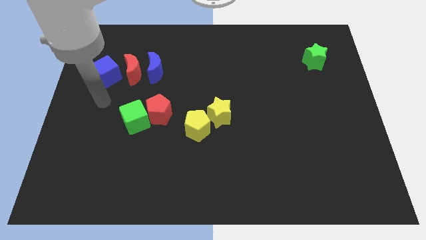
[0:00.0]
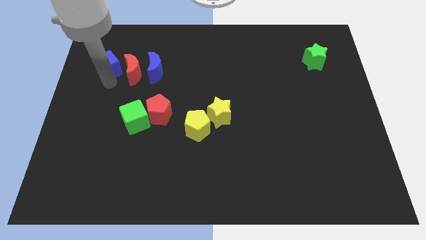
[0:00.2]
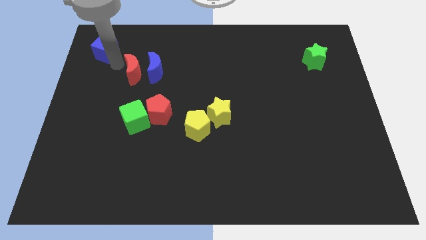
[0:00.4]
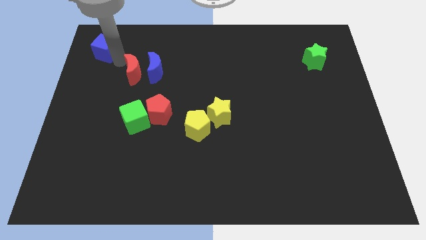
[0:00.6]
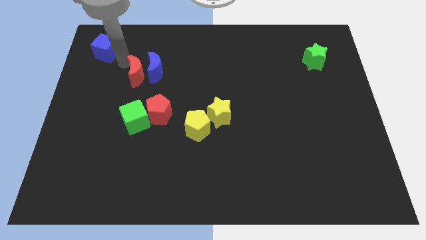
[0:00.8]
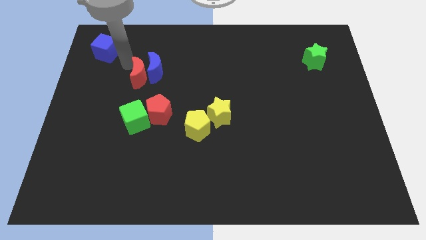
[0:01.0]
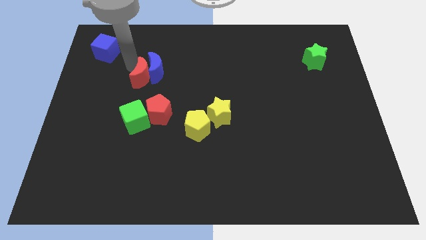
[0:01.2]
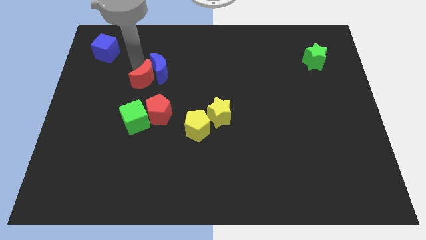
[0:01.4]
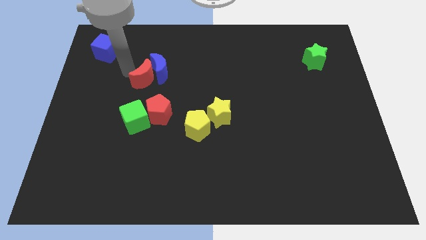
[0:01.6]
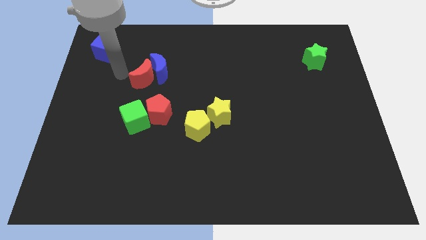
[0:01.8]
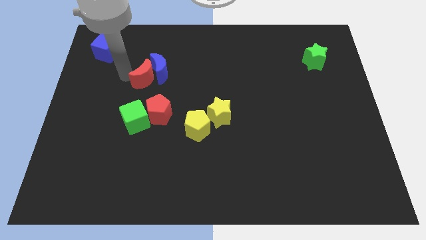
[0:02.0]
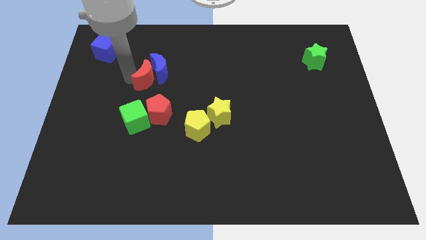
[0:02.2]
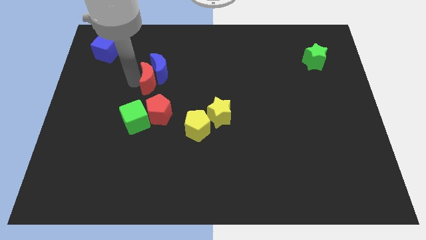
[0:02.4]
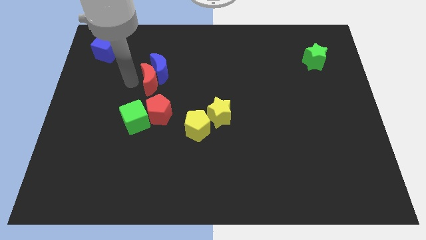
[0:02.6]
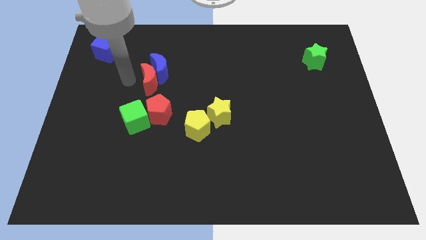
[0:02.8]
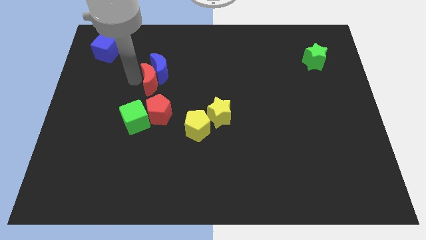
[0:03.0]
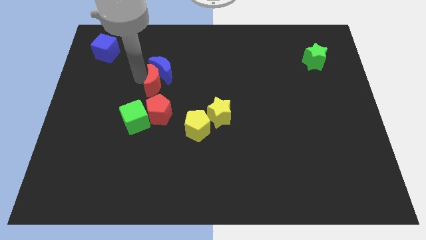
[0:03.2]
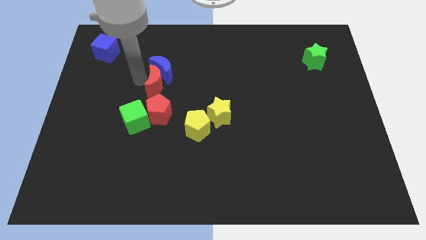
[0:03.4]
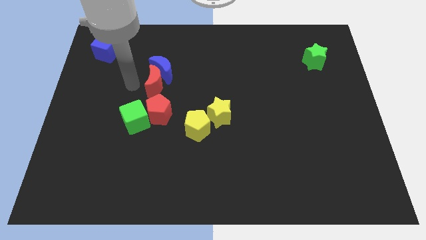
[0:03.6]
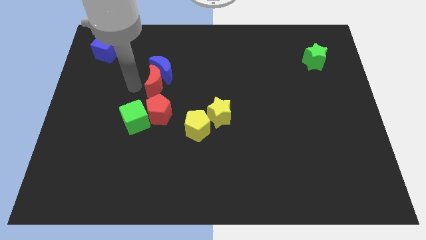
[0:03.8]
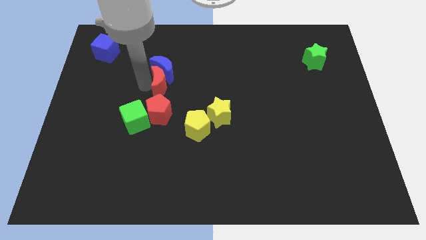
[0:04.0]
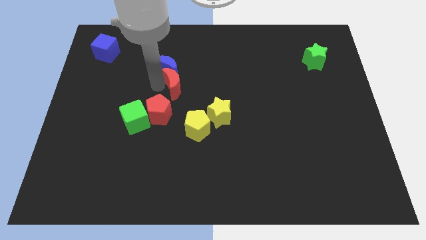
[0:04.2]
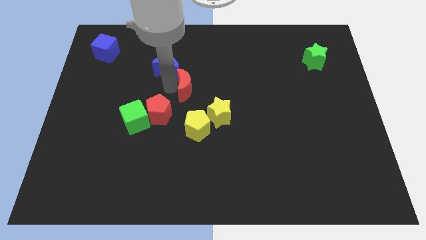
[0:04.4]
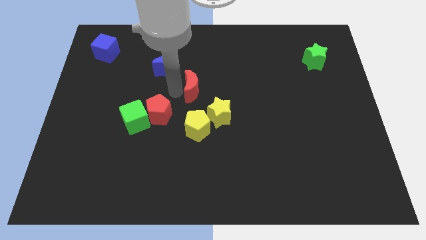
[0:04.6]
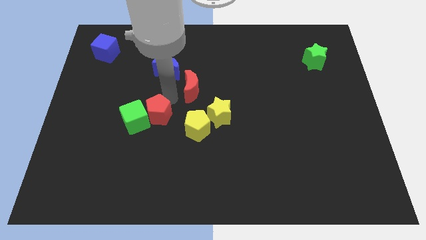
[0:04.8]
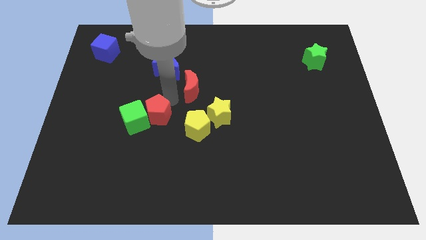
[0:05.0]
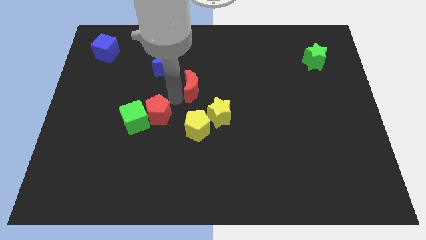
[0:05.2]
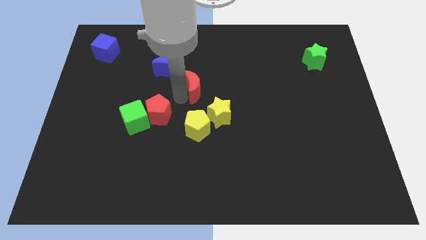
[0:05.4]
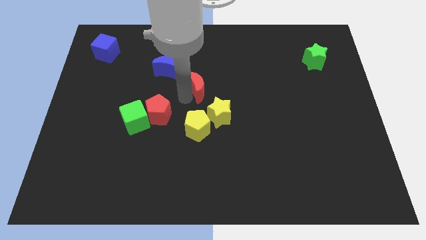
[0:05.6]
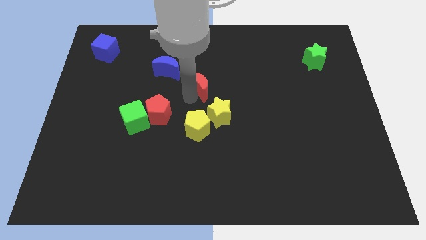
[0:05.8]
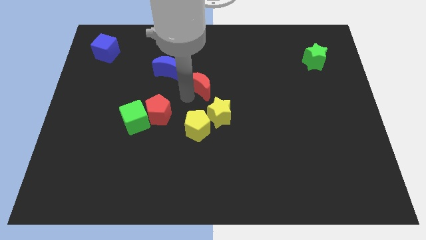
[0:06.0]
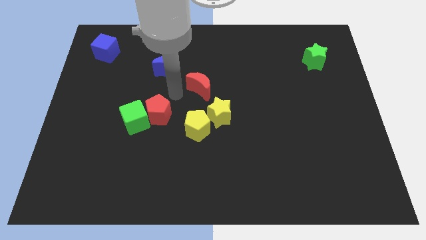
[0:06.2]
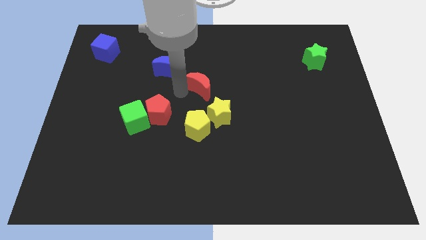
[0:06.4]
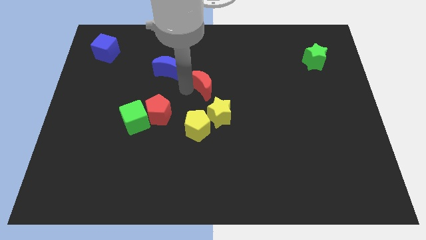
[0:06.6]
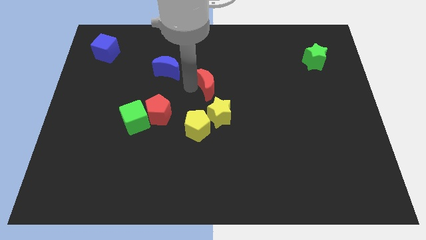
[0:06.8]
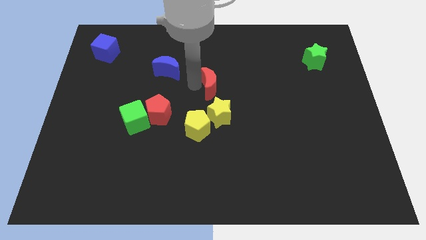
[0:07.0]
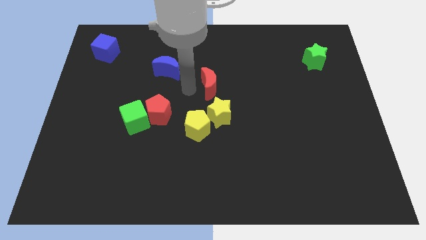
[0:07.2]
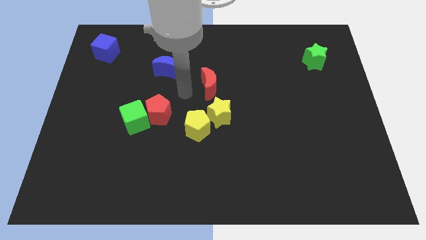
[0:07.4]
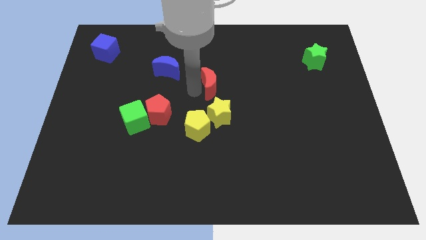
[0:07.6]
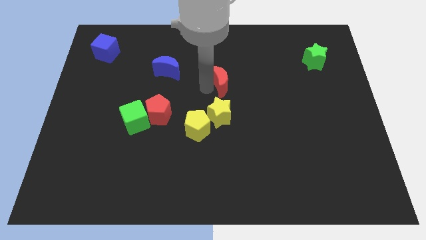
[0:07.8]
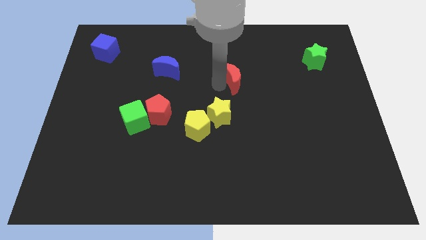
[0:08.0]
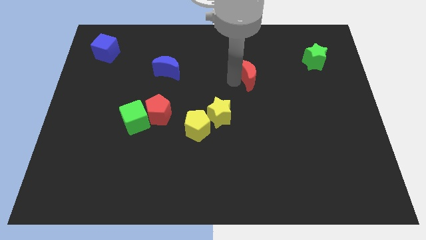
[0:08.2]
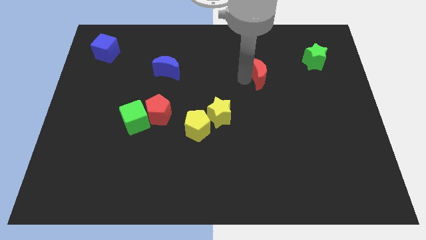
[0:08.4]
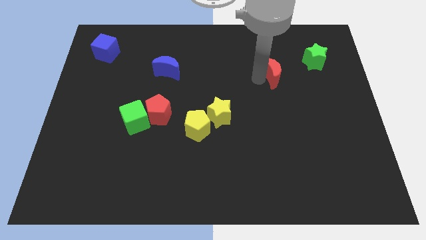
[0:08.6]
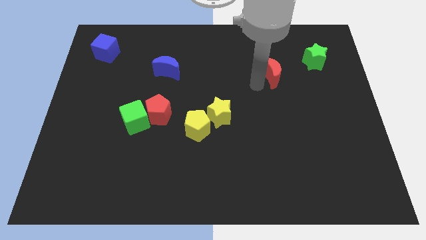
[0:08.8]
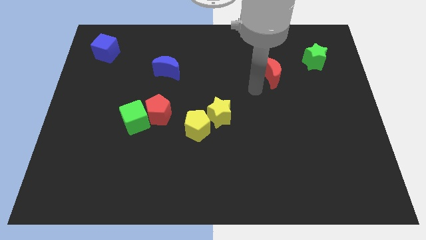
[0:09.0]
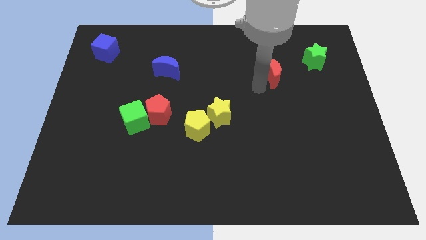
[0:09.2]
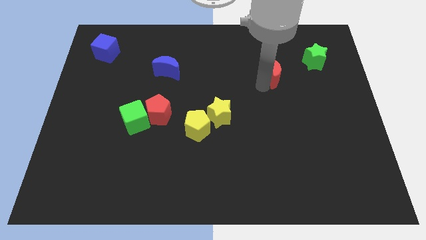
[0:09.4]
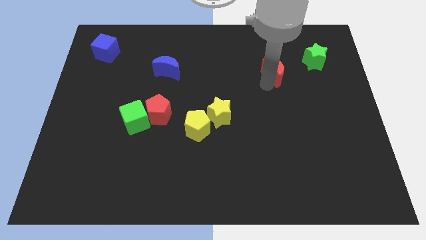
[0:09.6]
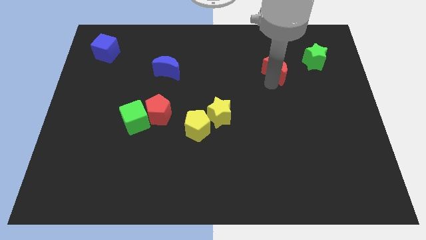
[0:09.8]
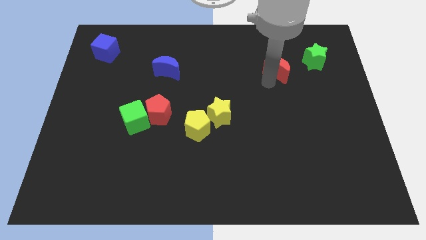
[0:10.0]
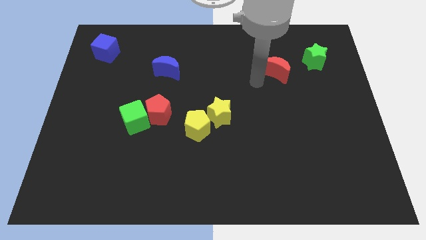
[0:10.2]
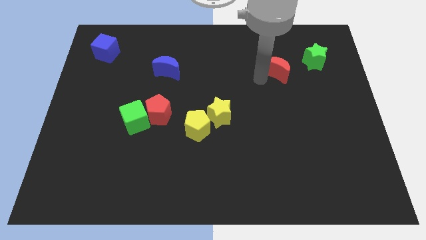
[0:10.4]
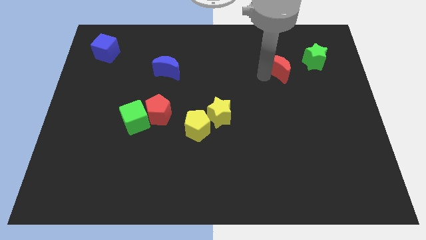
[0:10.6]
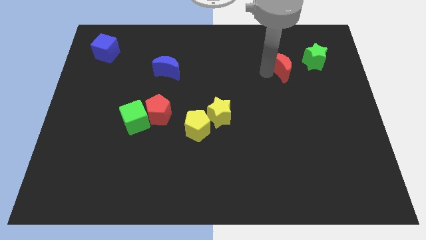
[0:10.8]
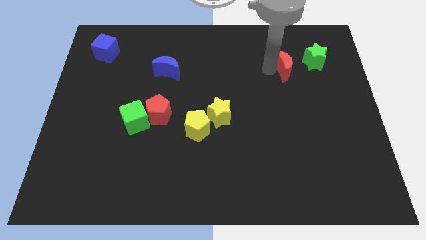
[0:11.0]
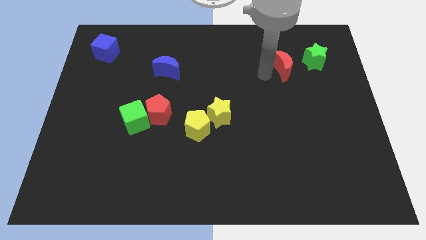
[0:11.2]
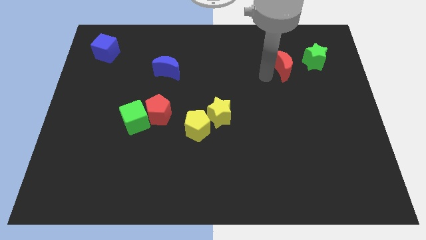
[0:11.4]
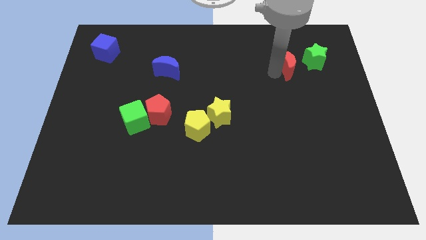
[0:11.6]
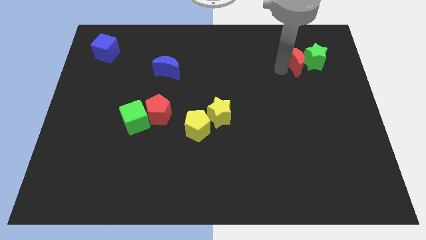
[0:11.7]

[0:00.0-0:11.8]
move the red moon next to the green star

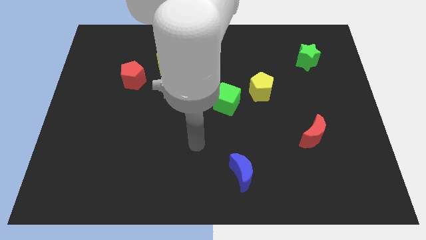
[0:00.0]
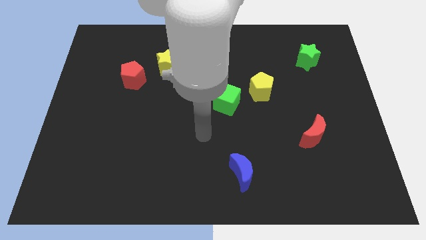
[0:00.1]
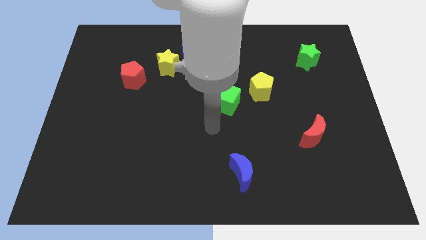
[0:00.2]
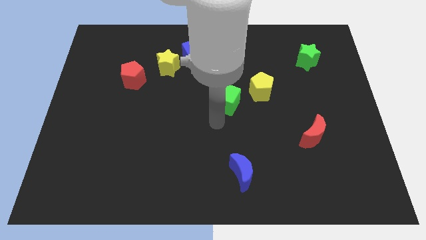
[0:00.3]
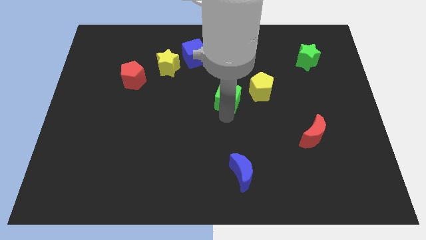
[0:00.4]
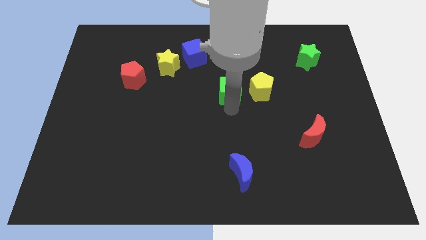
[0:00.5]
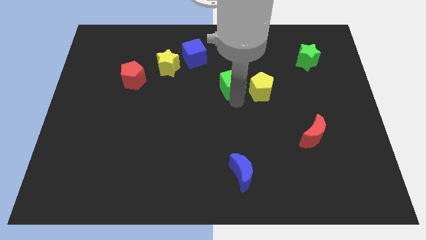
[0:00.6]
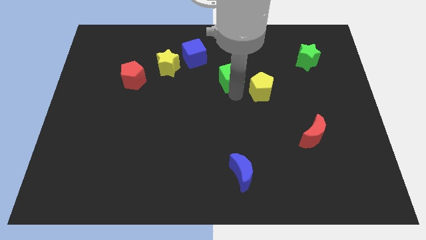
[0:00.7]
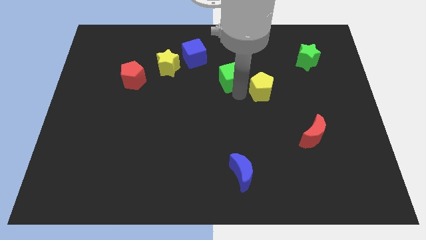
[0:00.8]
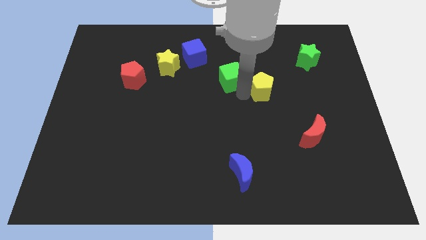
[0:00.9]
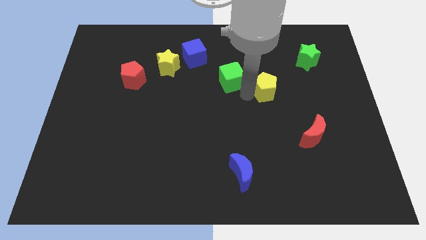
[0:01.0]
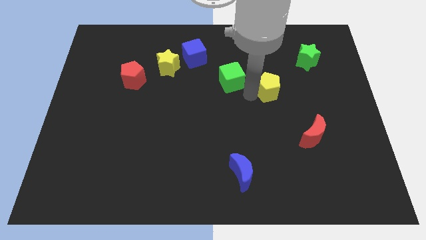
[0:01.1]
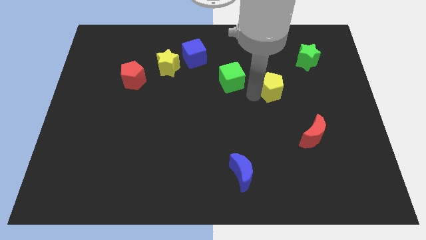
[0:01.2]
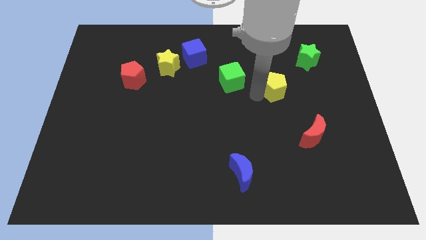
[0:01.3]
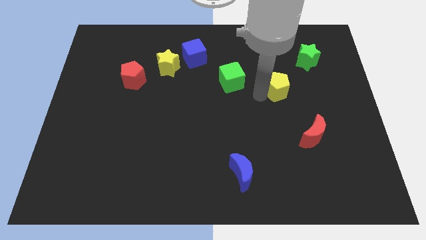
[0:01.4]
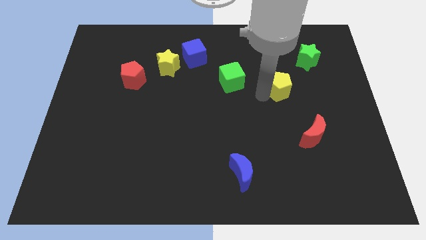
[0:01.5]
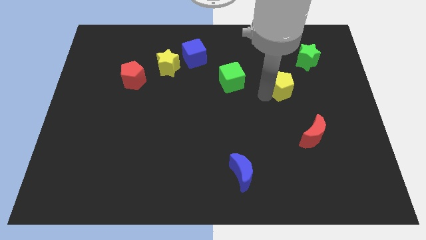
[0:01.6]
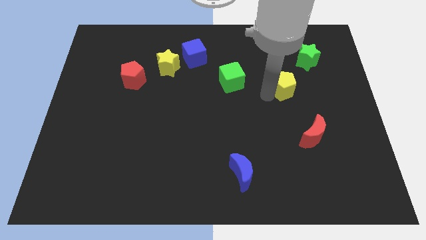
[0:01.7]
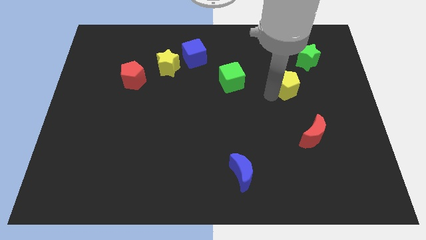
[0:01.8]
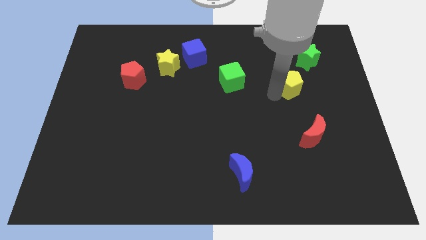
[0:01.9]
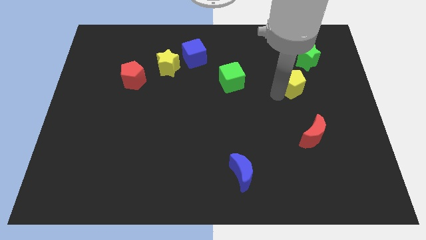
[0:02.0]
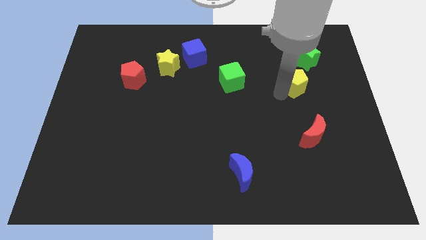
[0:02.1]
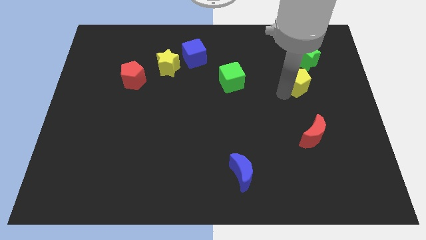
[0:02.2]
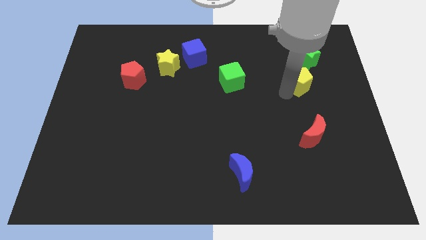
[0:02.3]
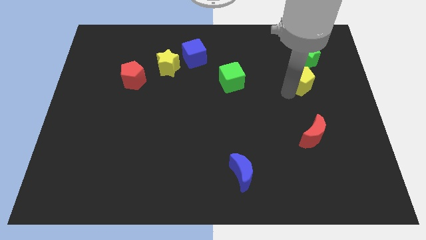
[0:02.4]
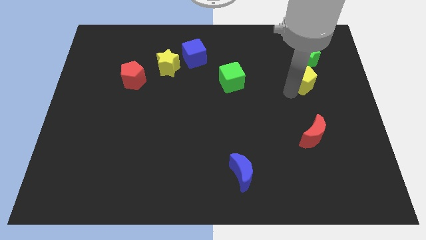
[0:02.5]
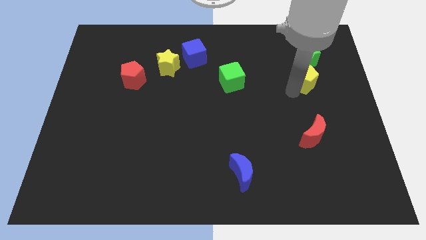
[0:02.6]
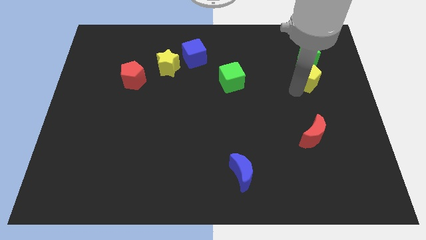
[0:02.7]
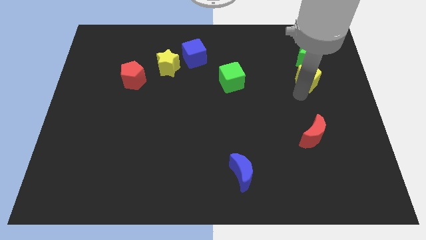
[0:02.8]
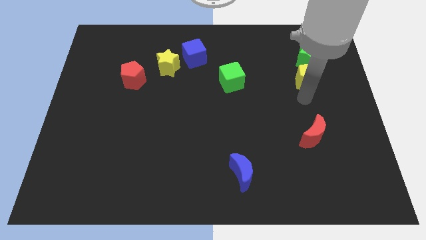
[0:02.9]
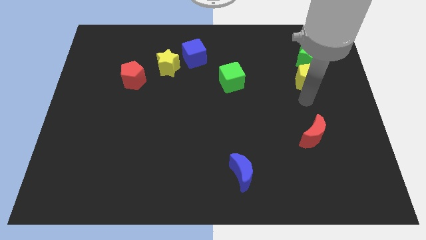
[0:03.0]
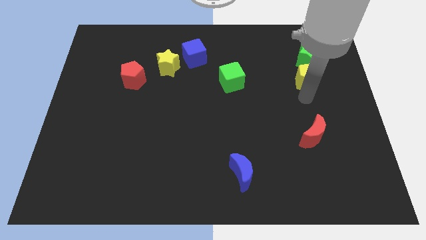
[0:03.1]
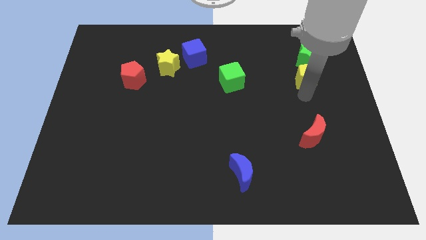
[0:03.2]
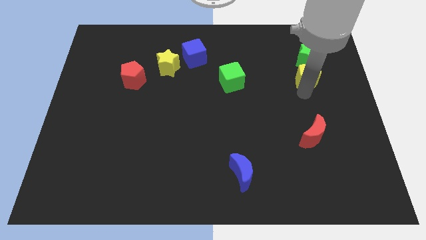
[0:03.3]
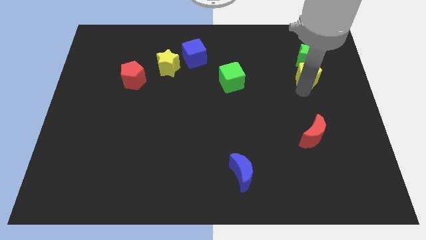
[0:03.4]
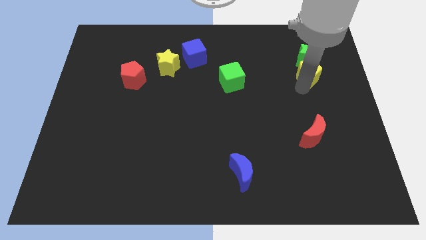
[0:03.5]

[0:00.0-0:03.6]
push the yellow pentagon to the green star
